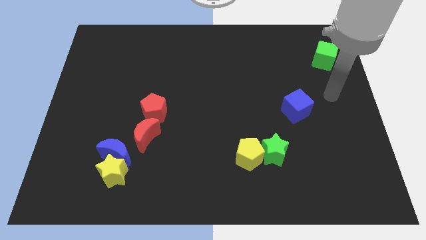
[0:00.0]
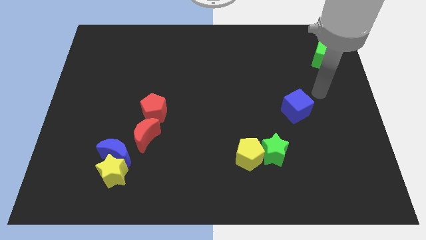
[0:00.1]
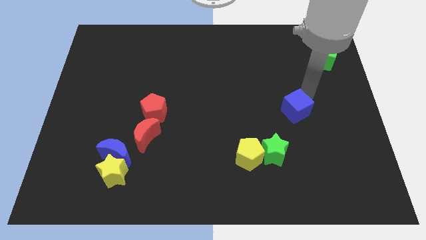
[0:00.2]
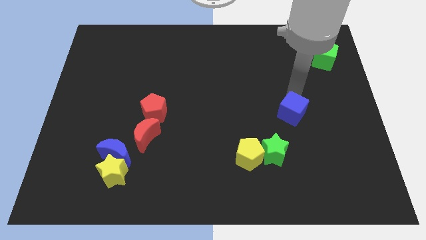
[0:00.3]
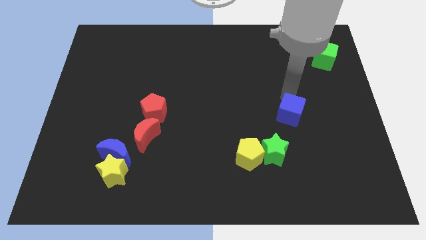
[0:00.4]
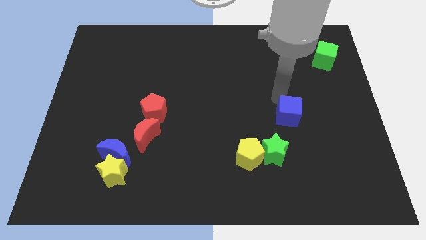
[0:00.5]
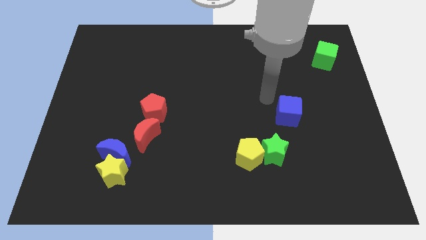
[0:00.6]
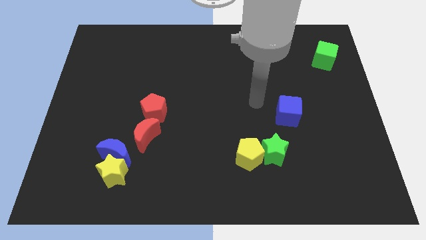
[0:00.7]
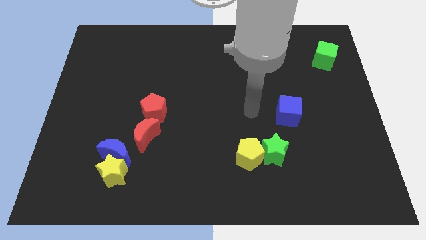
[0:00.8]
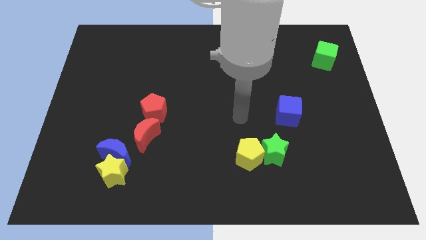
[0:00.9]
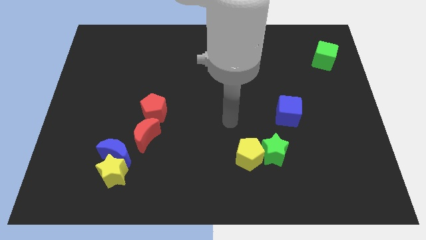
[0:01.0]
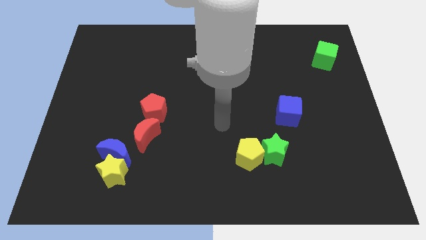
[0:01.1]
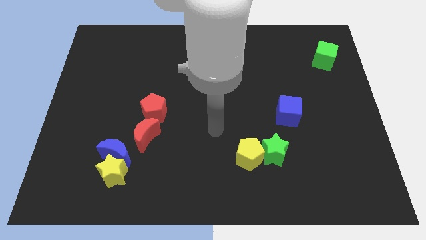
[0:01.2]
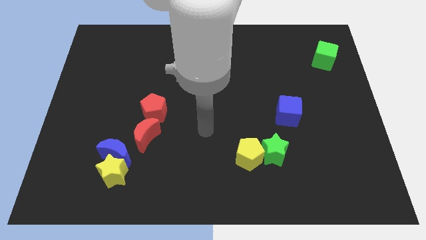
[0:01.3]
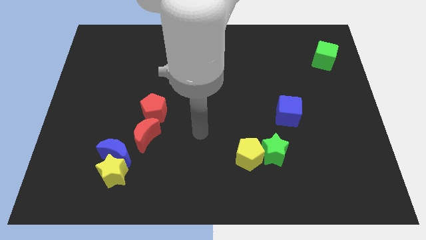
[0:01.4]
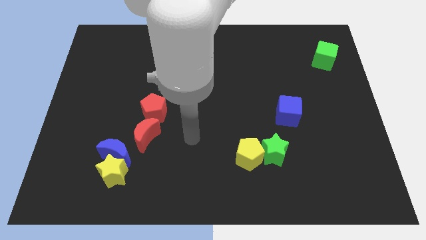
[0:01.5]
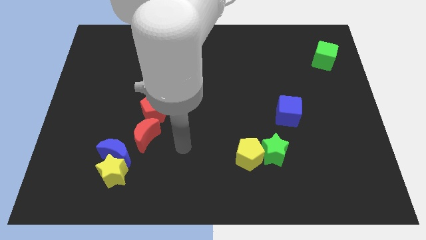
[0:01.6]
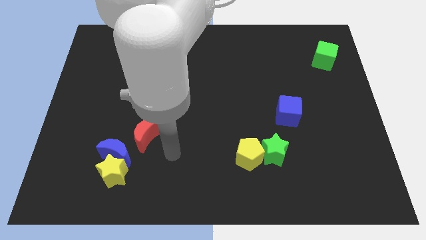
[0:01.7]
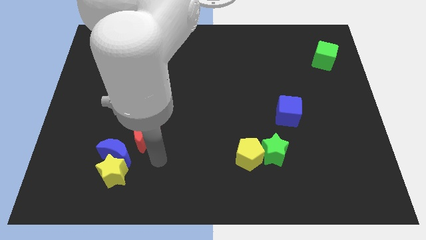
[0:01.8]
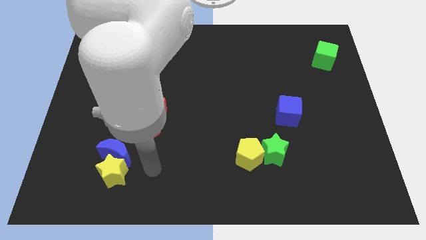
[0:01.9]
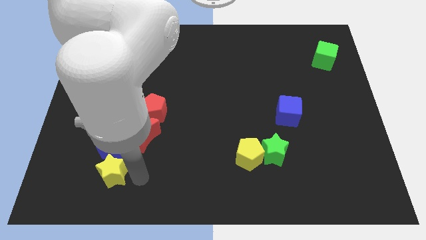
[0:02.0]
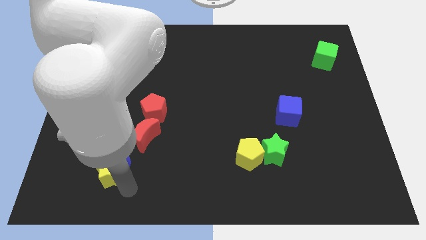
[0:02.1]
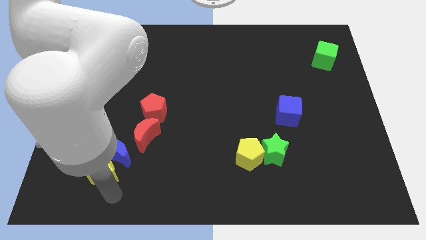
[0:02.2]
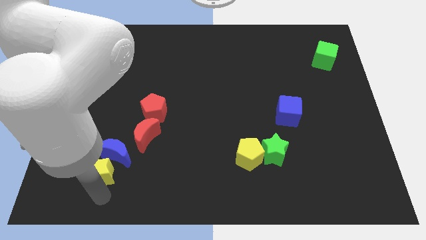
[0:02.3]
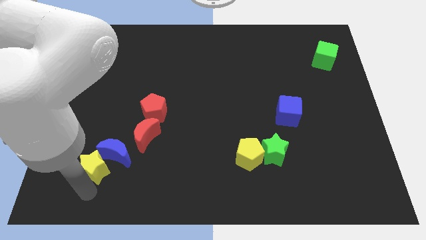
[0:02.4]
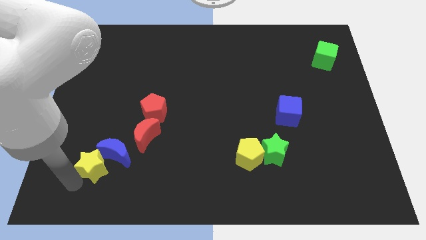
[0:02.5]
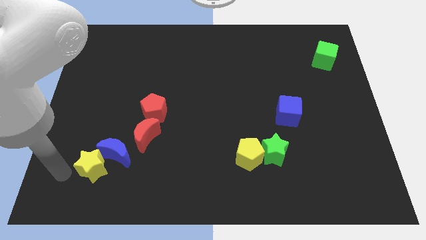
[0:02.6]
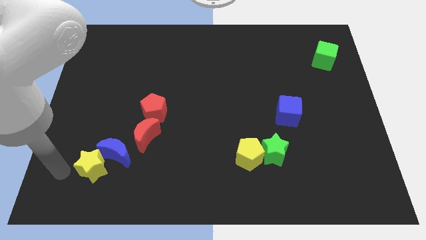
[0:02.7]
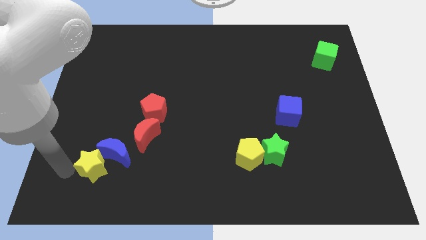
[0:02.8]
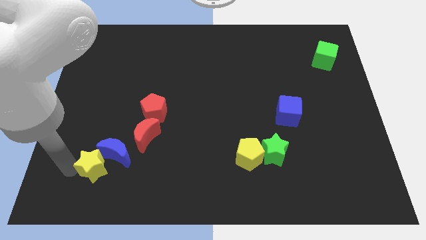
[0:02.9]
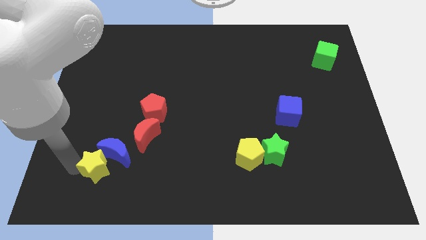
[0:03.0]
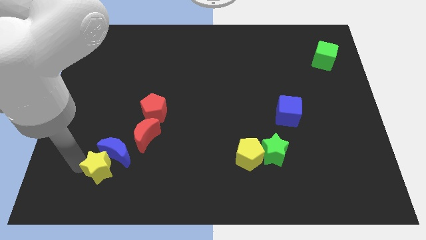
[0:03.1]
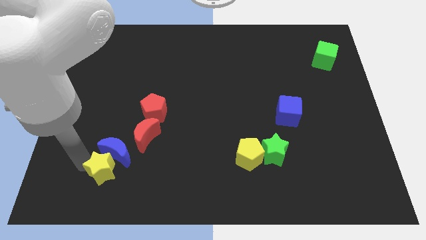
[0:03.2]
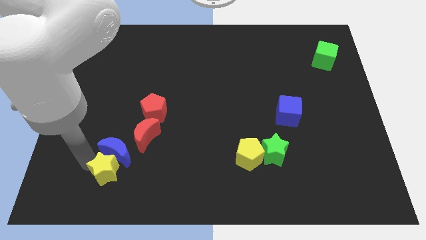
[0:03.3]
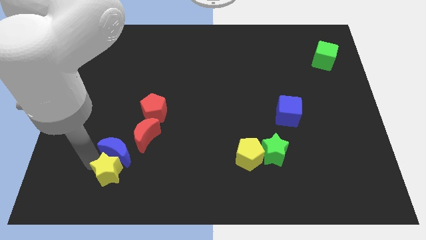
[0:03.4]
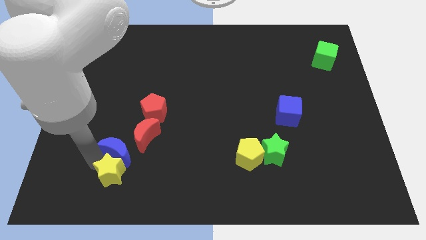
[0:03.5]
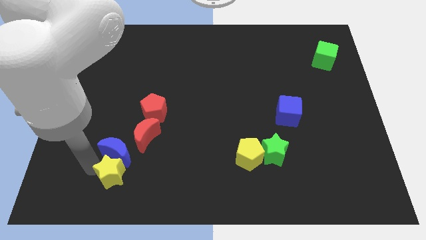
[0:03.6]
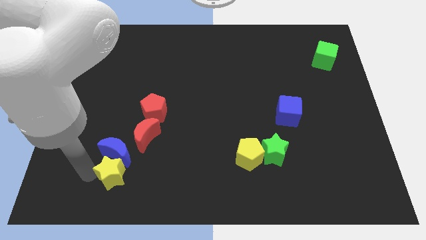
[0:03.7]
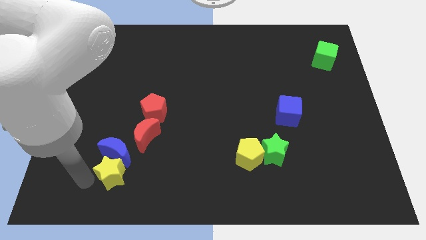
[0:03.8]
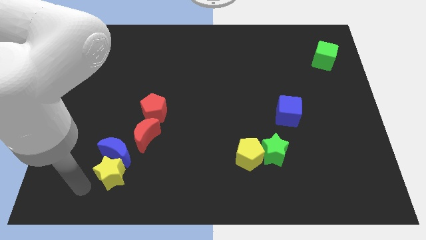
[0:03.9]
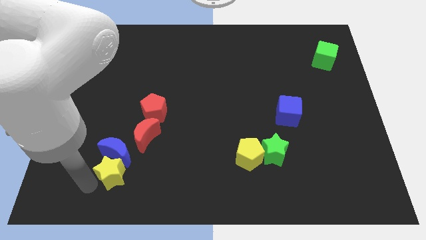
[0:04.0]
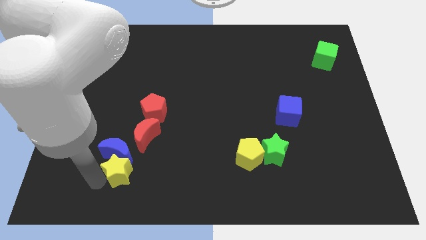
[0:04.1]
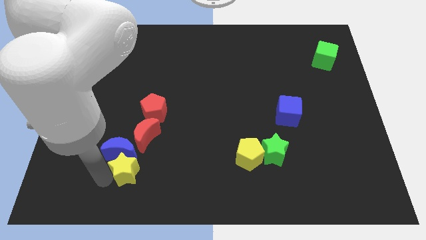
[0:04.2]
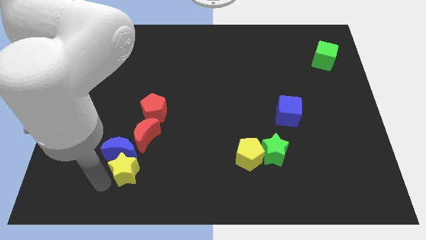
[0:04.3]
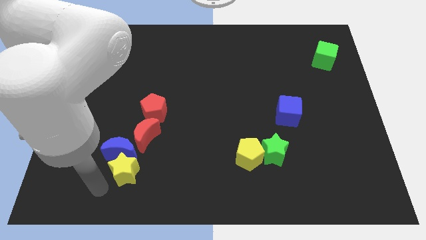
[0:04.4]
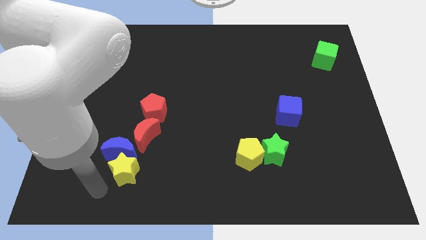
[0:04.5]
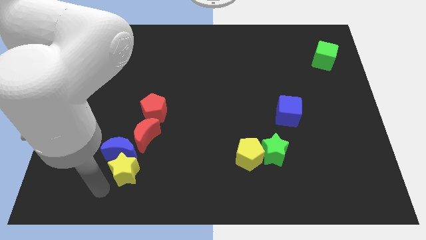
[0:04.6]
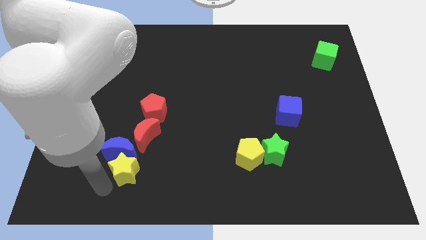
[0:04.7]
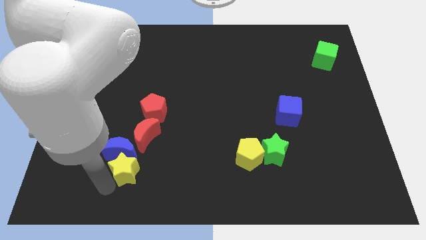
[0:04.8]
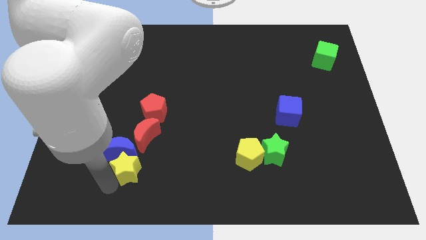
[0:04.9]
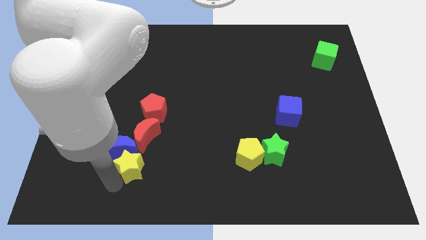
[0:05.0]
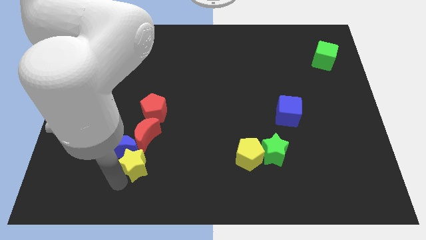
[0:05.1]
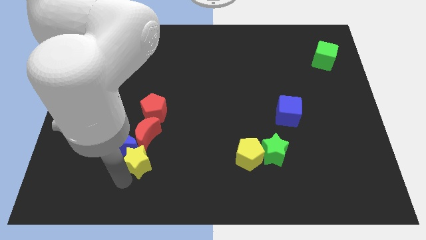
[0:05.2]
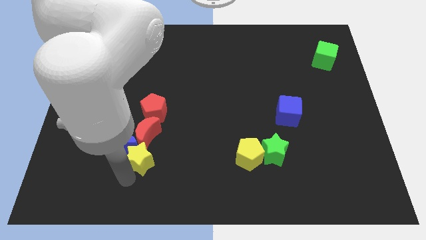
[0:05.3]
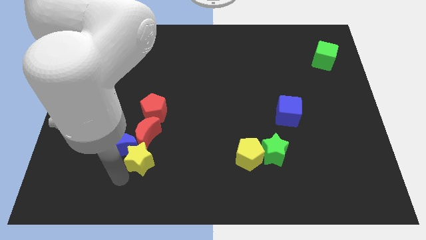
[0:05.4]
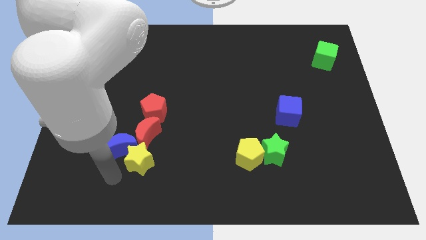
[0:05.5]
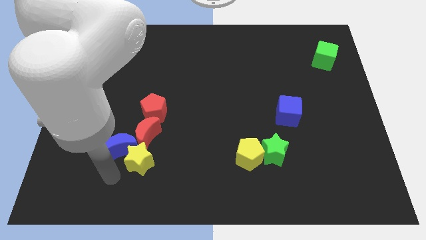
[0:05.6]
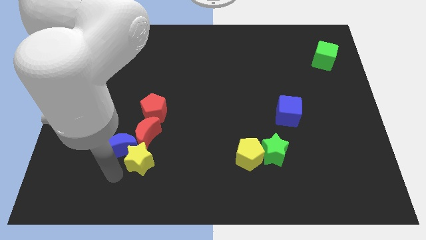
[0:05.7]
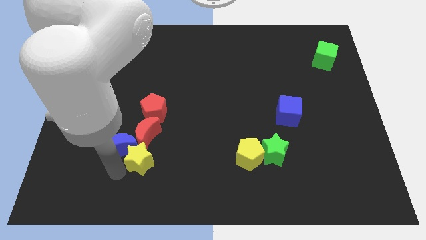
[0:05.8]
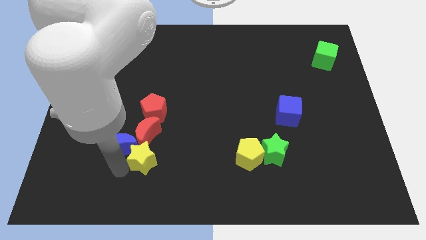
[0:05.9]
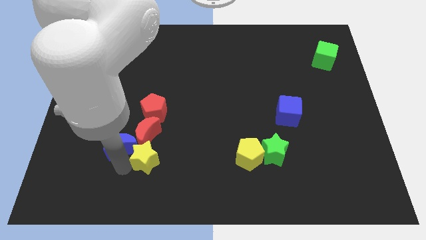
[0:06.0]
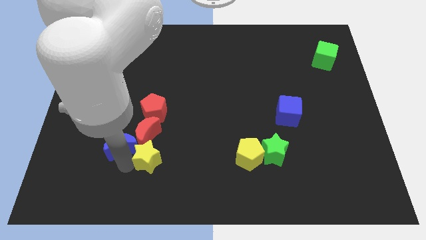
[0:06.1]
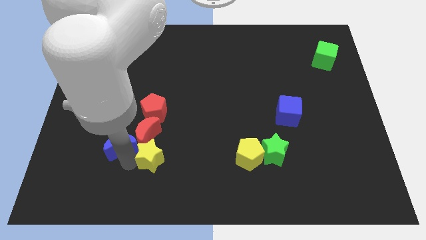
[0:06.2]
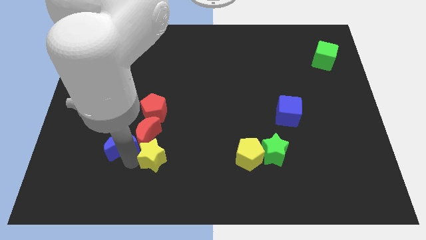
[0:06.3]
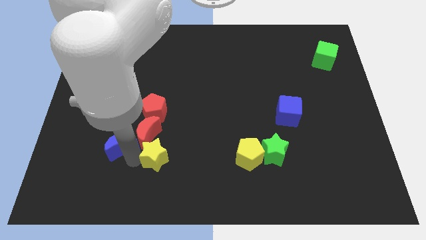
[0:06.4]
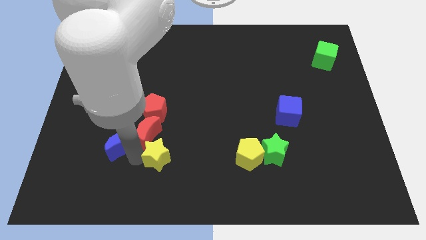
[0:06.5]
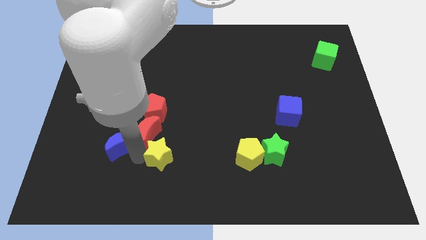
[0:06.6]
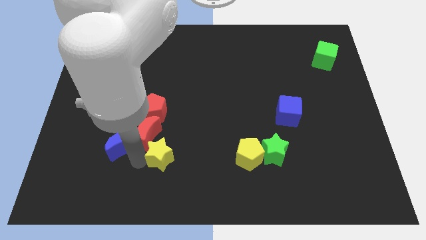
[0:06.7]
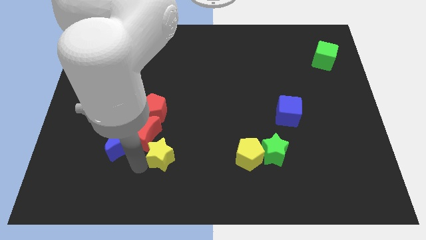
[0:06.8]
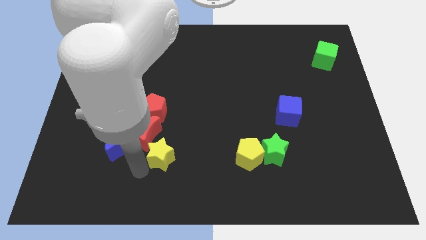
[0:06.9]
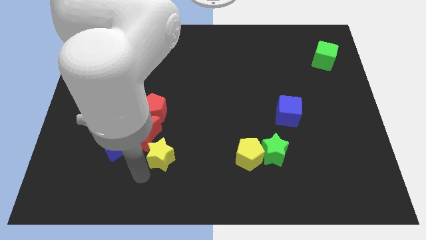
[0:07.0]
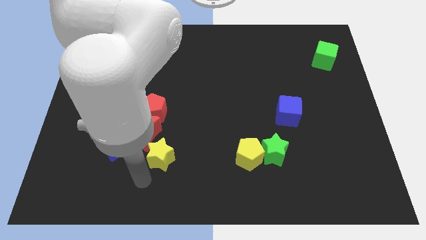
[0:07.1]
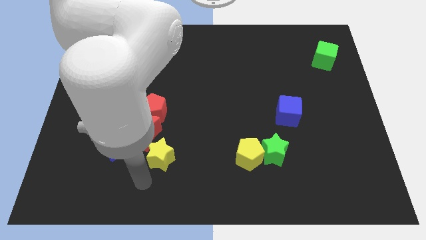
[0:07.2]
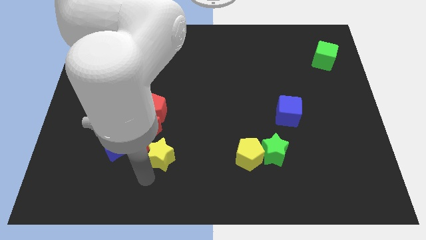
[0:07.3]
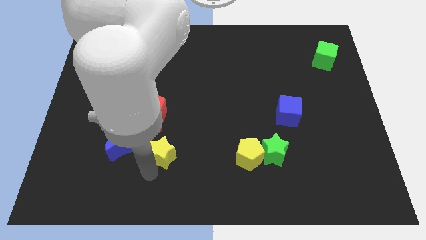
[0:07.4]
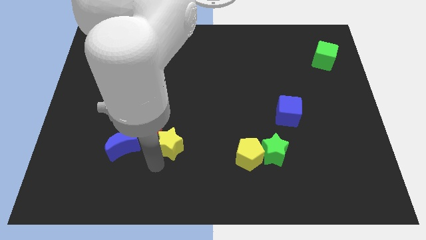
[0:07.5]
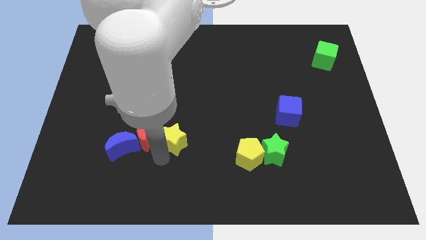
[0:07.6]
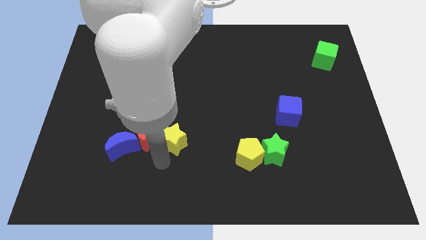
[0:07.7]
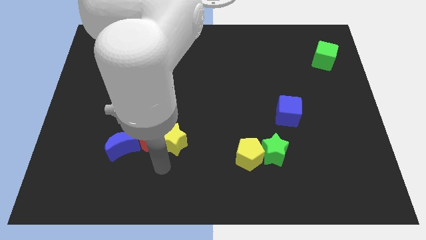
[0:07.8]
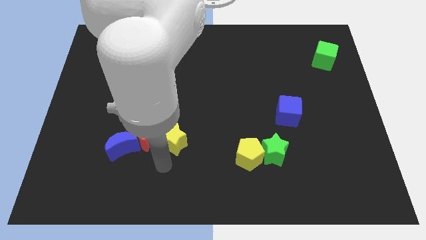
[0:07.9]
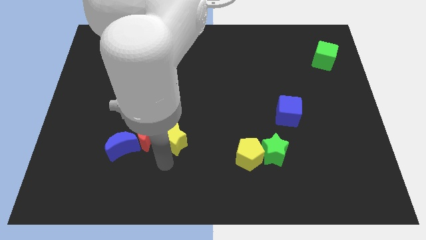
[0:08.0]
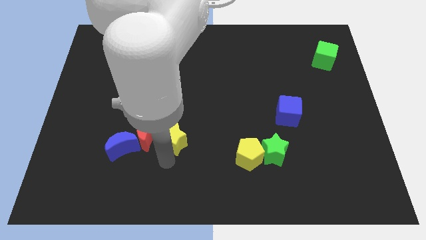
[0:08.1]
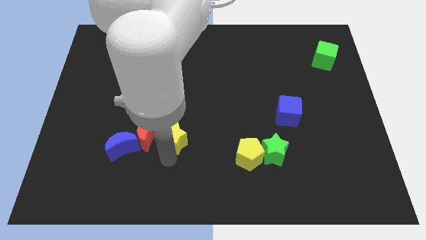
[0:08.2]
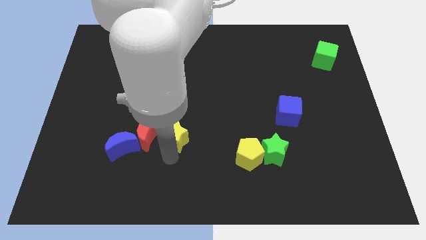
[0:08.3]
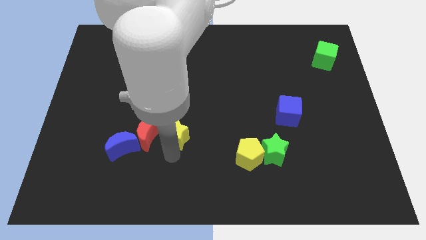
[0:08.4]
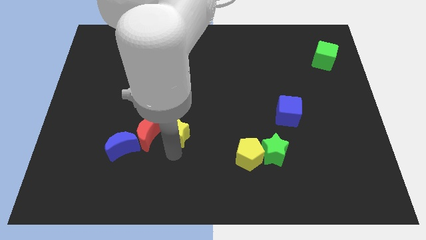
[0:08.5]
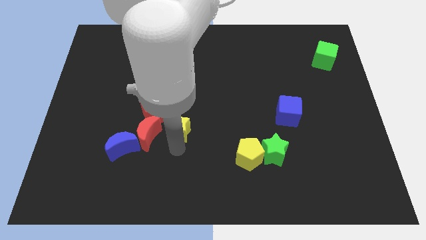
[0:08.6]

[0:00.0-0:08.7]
move the yellow star to the middle
